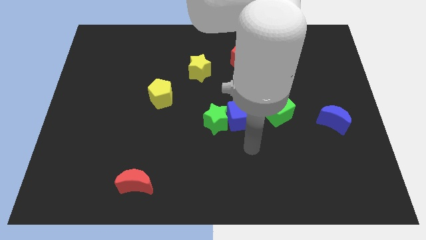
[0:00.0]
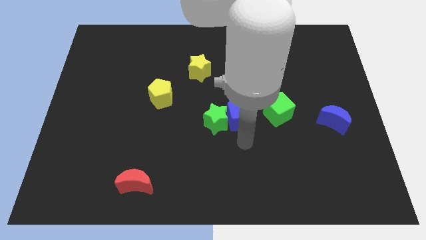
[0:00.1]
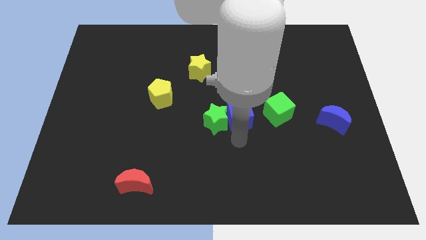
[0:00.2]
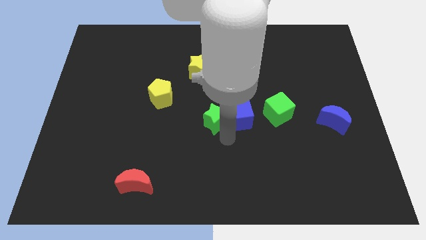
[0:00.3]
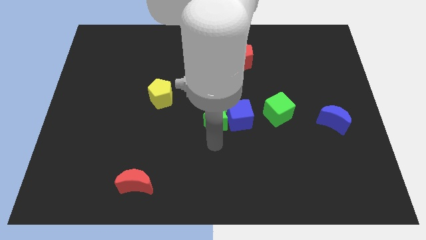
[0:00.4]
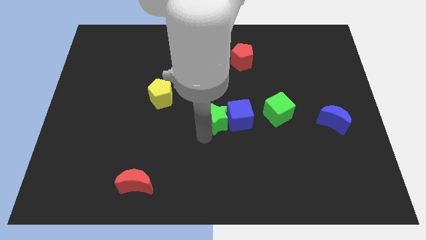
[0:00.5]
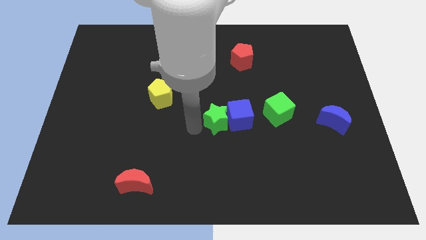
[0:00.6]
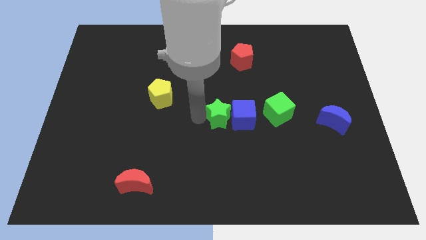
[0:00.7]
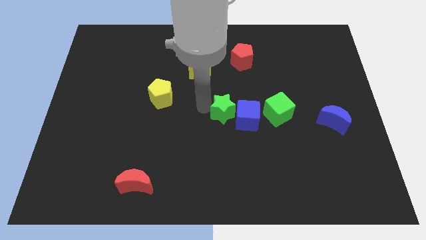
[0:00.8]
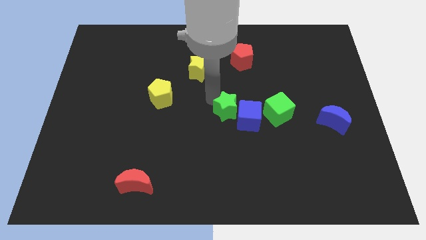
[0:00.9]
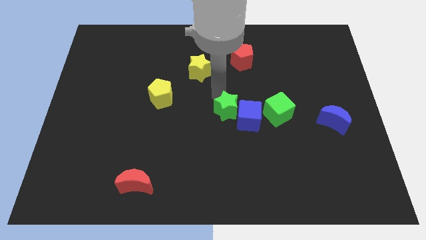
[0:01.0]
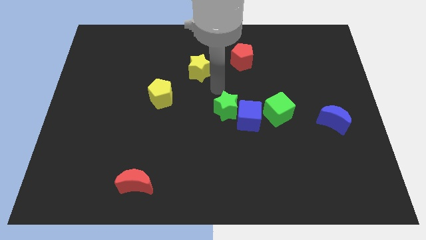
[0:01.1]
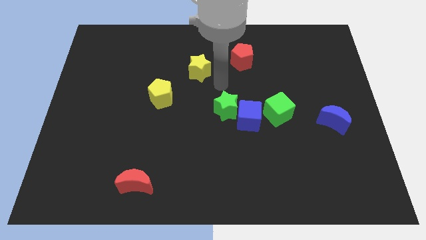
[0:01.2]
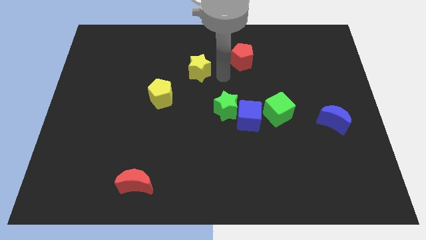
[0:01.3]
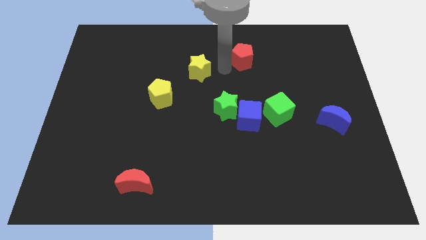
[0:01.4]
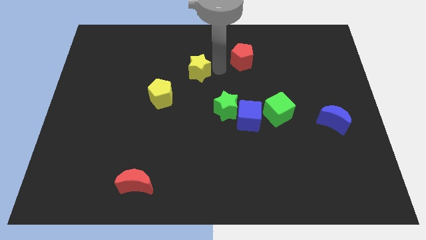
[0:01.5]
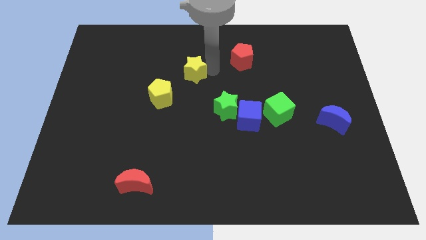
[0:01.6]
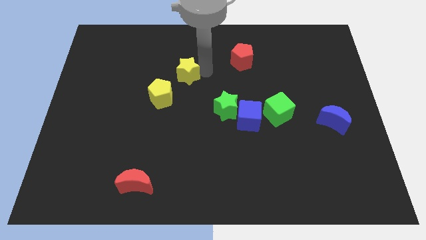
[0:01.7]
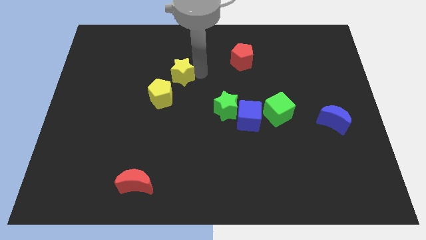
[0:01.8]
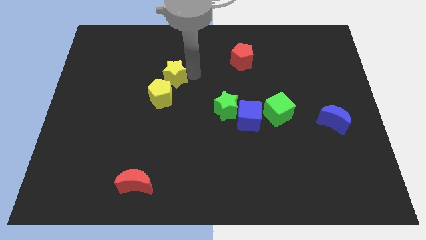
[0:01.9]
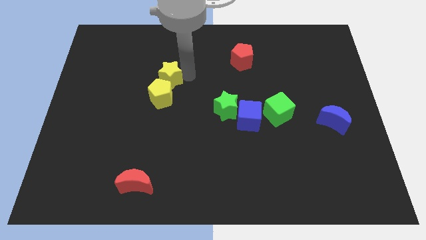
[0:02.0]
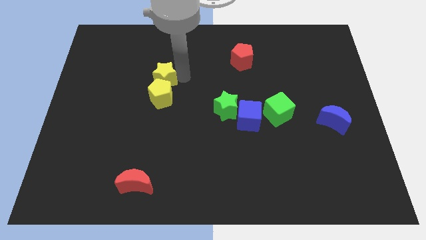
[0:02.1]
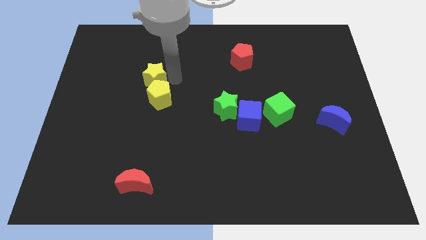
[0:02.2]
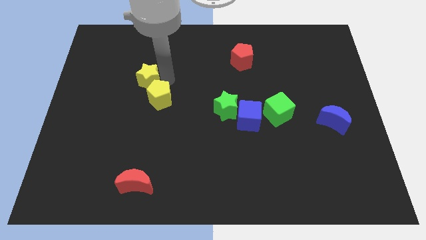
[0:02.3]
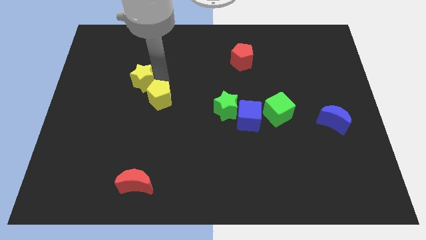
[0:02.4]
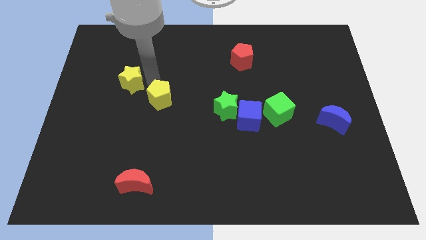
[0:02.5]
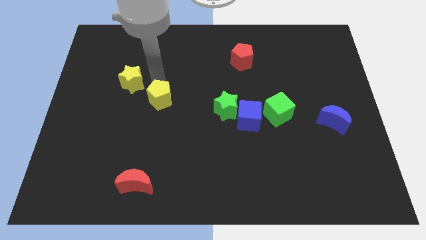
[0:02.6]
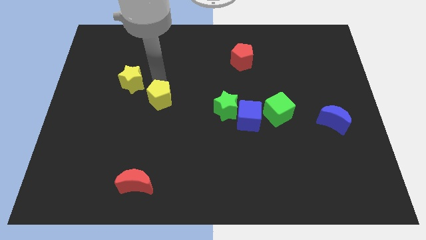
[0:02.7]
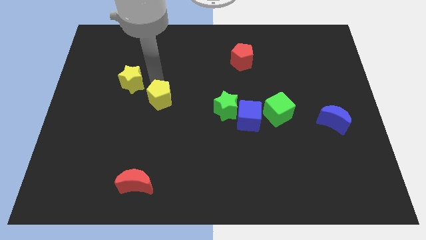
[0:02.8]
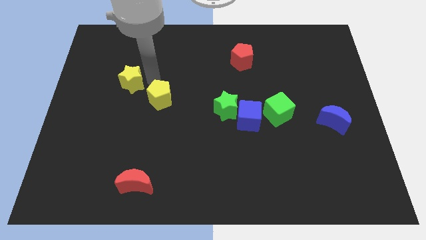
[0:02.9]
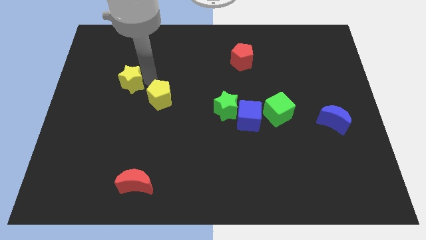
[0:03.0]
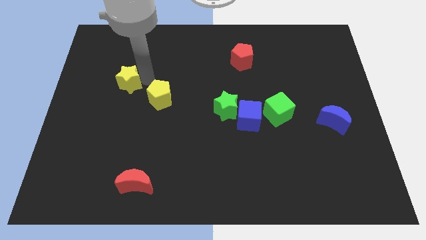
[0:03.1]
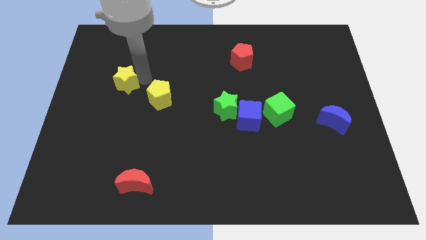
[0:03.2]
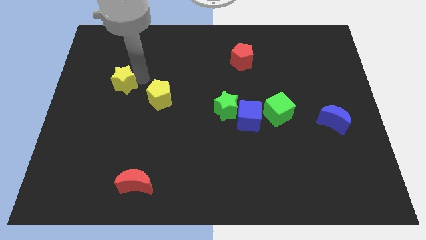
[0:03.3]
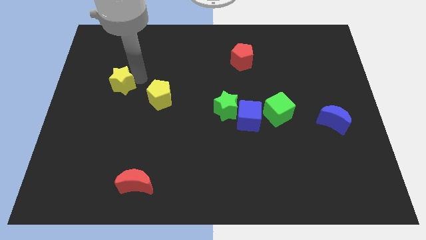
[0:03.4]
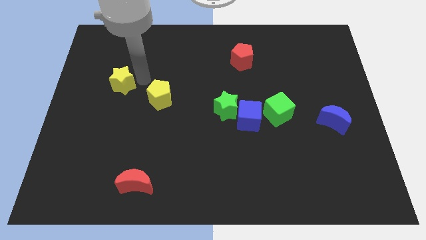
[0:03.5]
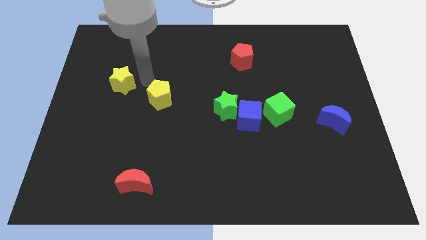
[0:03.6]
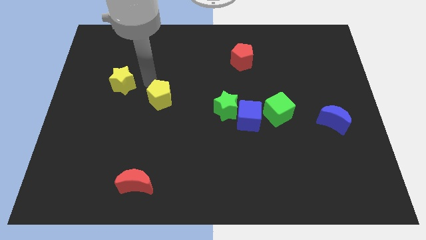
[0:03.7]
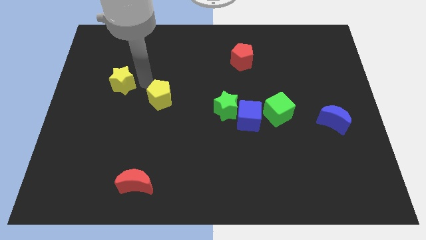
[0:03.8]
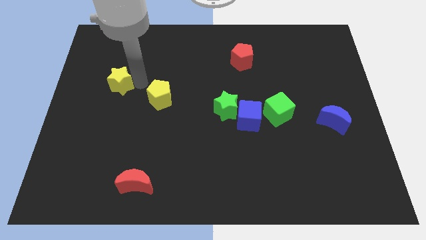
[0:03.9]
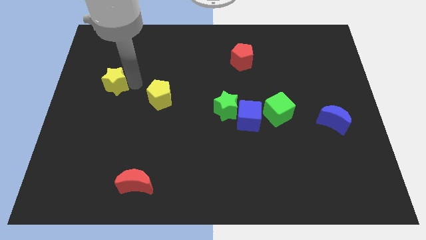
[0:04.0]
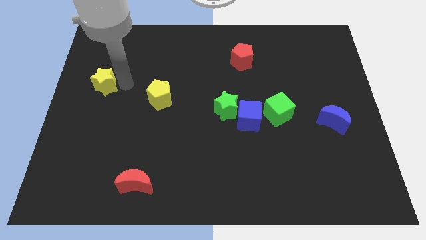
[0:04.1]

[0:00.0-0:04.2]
put the yellow star to the center left

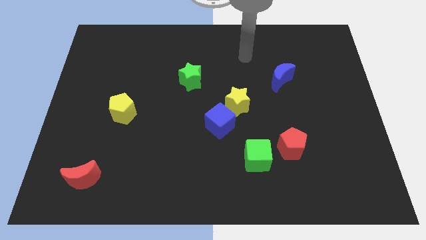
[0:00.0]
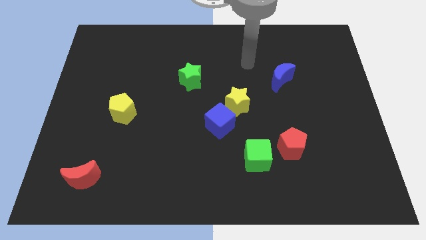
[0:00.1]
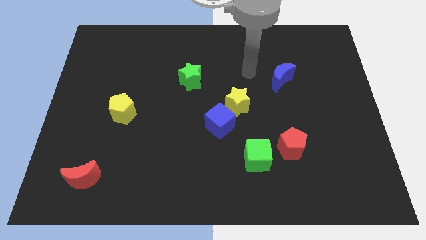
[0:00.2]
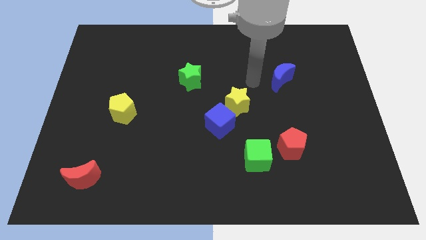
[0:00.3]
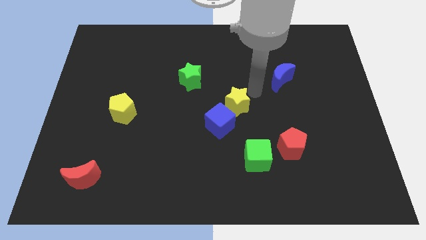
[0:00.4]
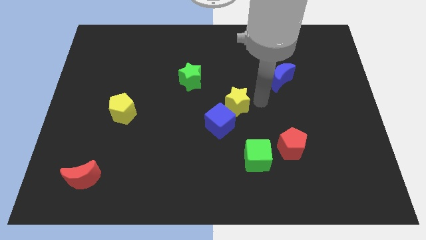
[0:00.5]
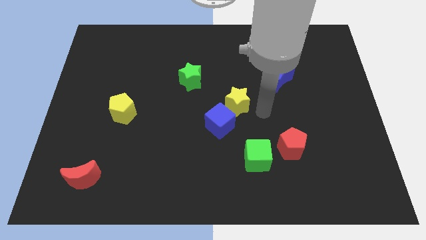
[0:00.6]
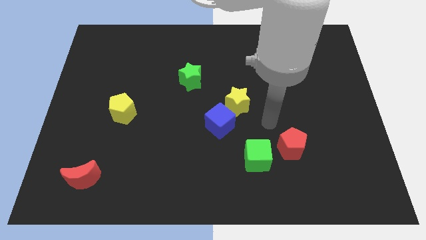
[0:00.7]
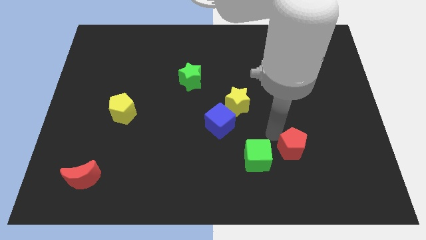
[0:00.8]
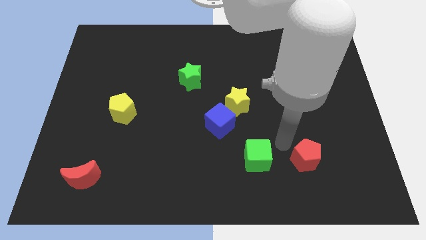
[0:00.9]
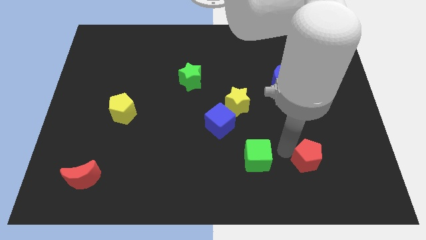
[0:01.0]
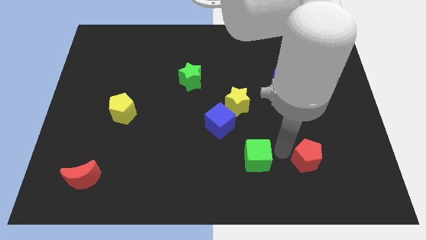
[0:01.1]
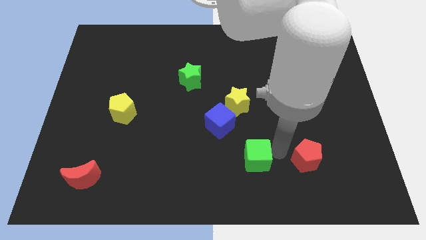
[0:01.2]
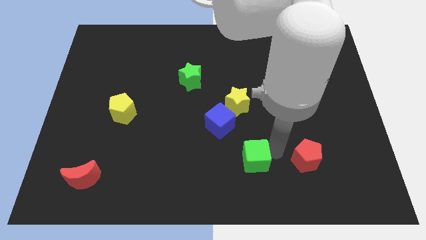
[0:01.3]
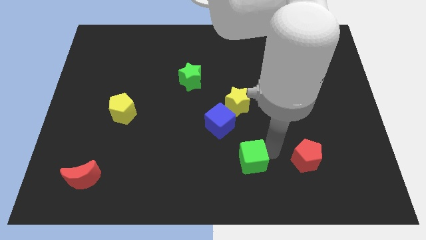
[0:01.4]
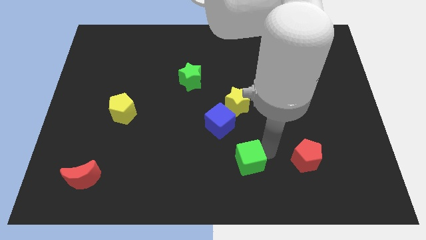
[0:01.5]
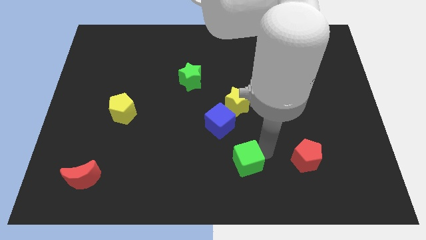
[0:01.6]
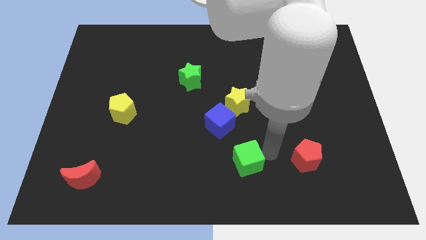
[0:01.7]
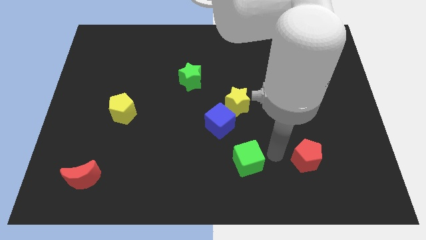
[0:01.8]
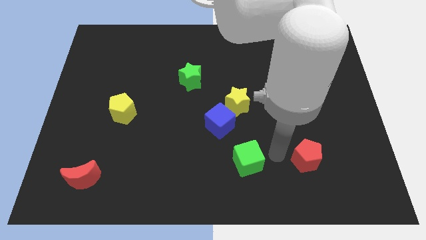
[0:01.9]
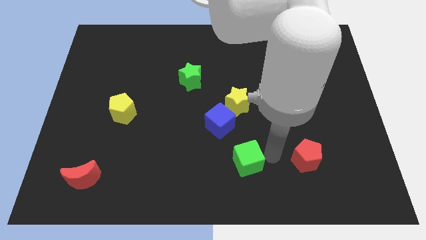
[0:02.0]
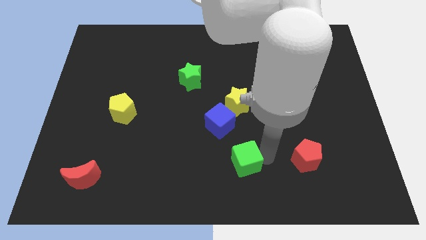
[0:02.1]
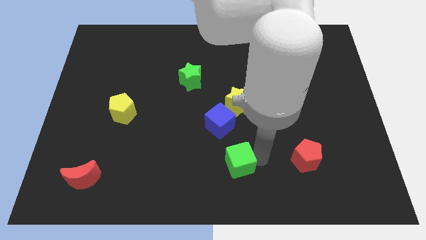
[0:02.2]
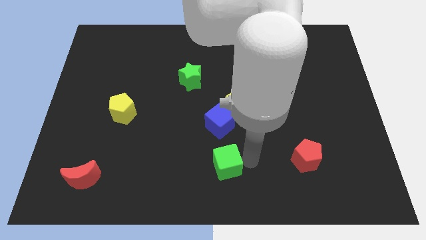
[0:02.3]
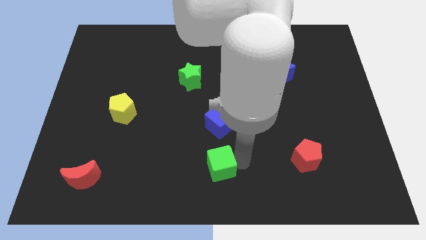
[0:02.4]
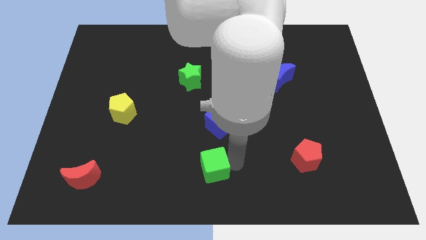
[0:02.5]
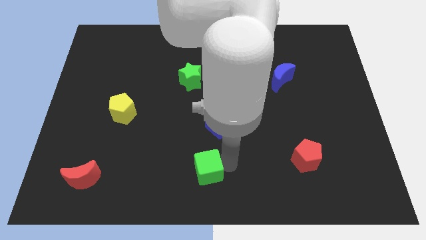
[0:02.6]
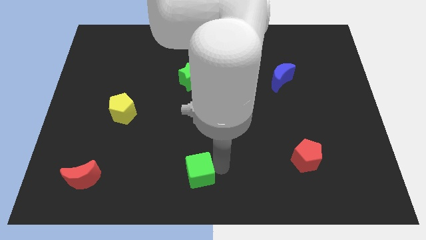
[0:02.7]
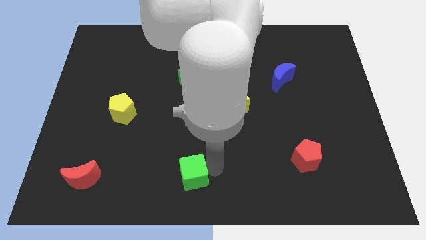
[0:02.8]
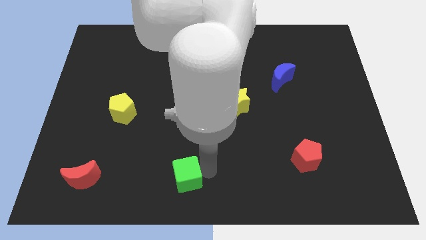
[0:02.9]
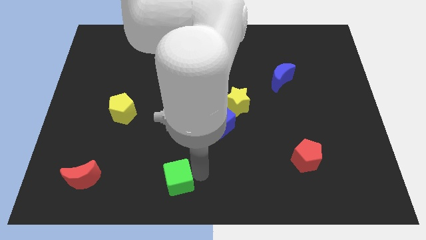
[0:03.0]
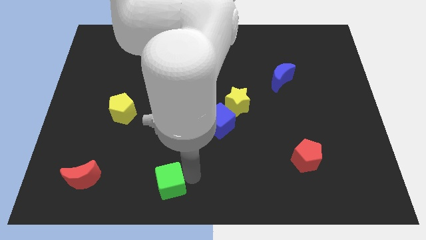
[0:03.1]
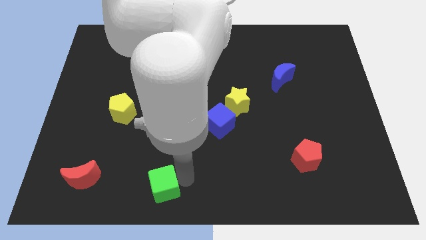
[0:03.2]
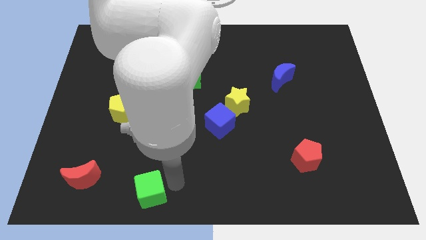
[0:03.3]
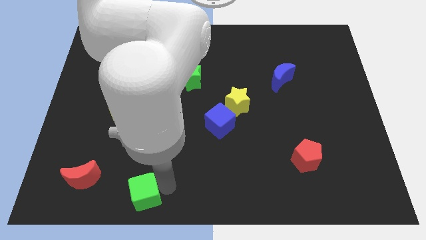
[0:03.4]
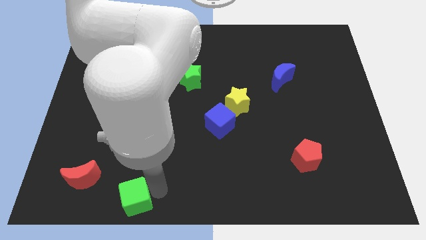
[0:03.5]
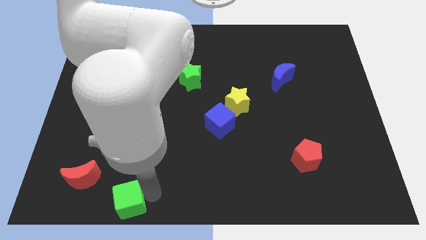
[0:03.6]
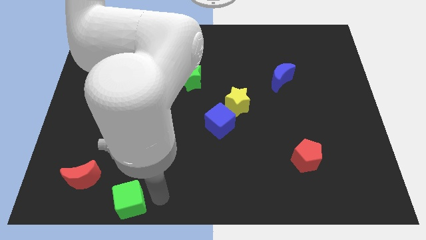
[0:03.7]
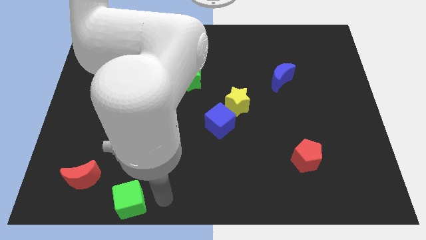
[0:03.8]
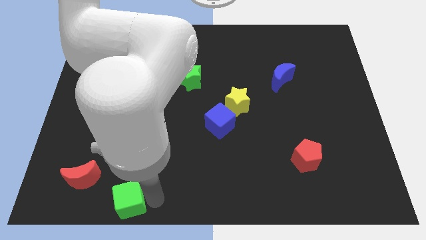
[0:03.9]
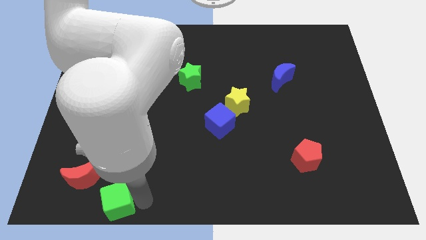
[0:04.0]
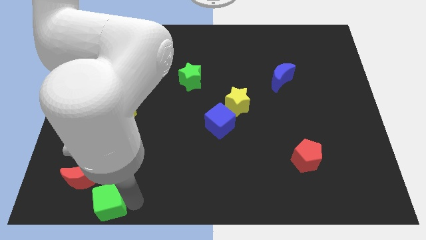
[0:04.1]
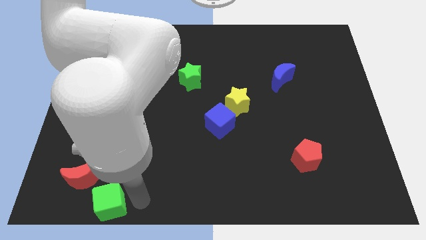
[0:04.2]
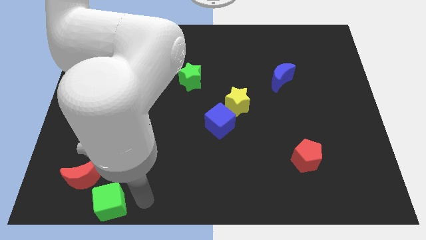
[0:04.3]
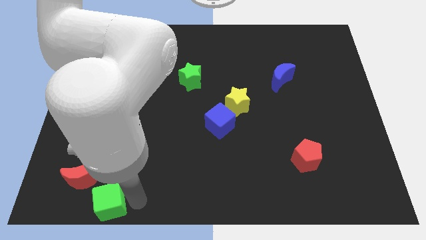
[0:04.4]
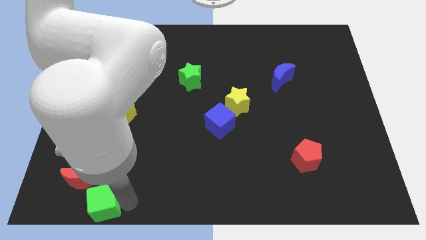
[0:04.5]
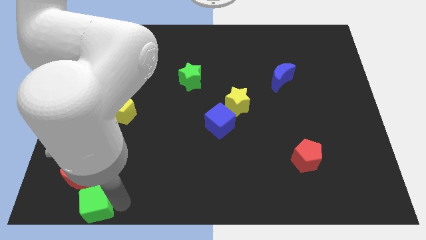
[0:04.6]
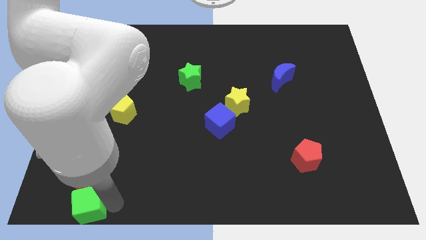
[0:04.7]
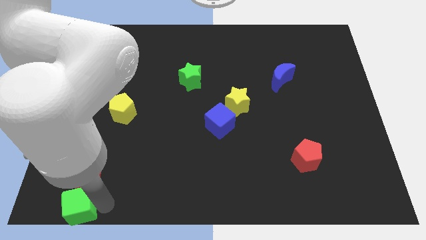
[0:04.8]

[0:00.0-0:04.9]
move the green cube to the bottom left
